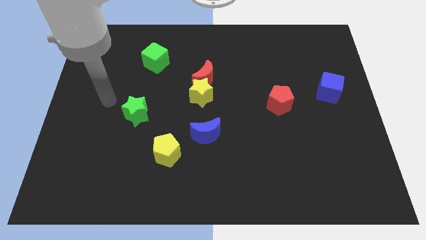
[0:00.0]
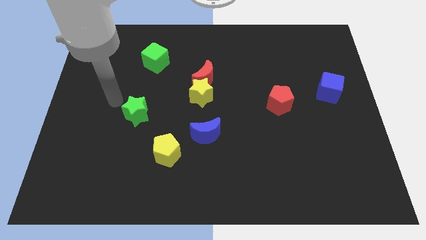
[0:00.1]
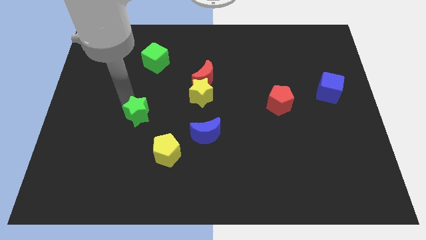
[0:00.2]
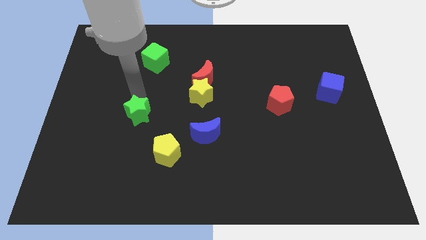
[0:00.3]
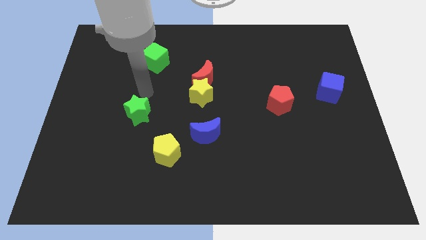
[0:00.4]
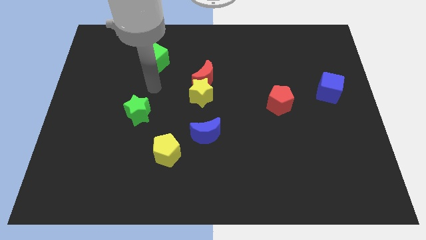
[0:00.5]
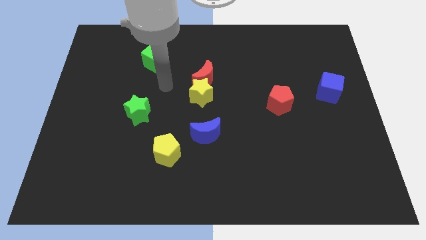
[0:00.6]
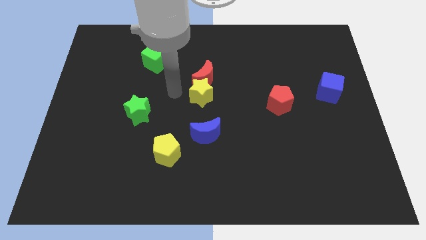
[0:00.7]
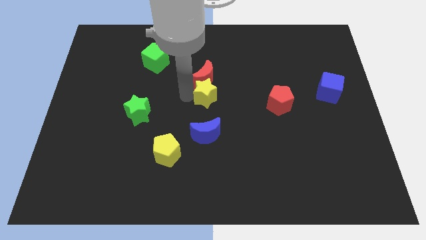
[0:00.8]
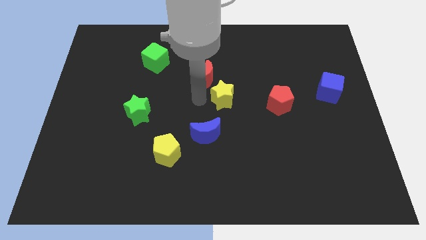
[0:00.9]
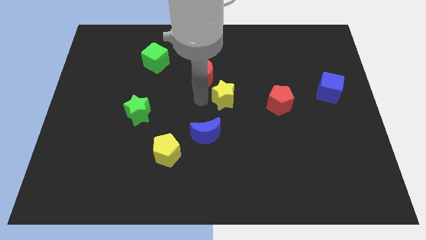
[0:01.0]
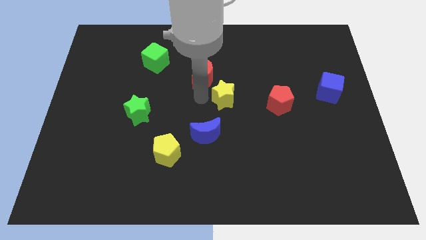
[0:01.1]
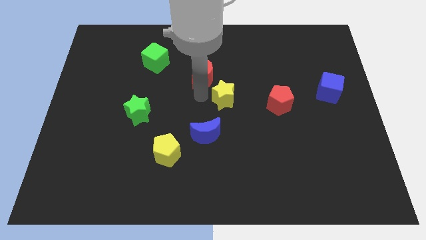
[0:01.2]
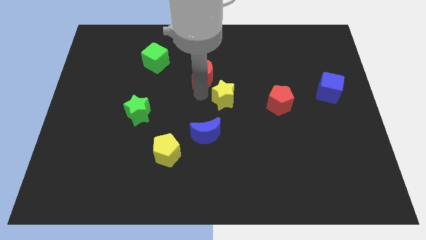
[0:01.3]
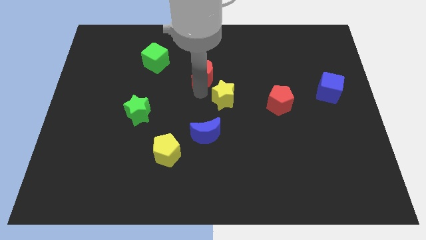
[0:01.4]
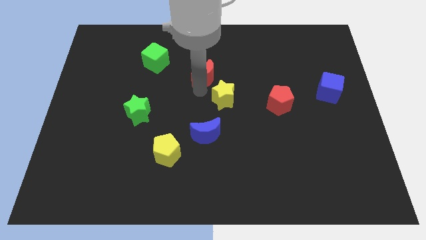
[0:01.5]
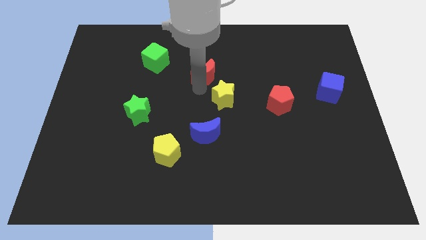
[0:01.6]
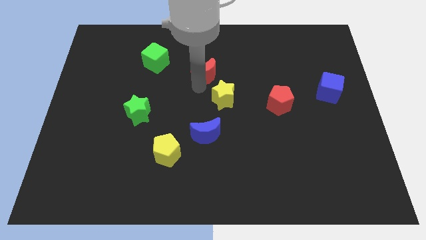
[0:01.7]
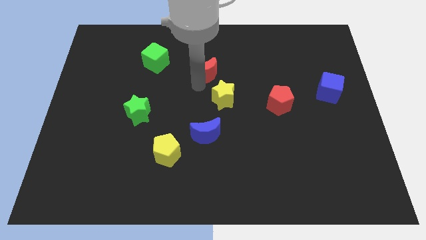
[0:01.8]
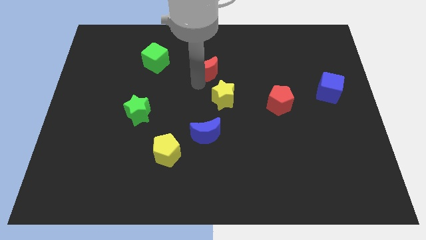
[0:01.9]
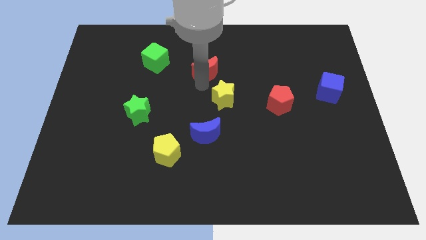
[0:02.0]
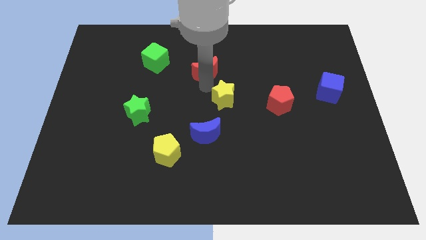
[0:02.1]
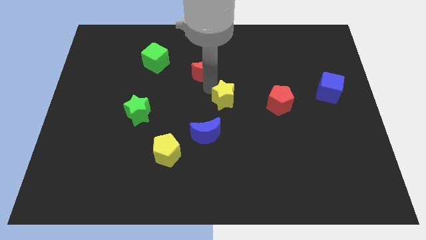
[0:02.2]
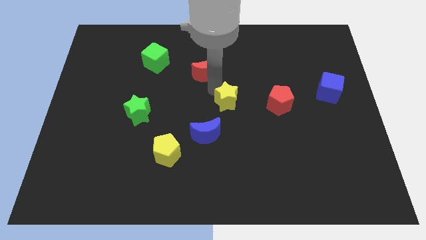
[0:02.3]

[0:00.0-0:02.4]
separate the red moon from the yellow star

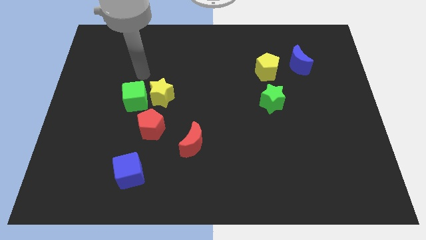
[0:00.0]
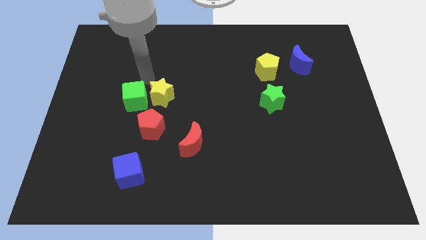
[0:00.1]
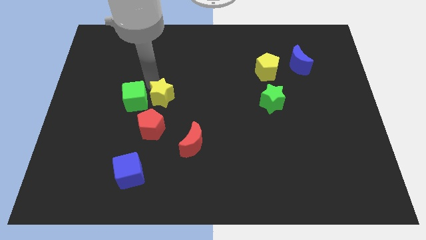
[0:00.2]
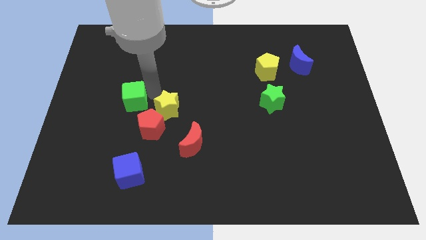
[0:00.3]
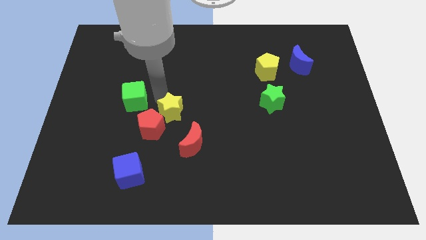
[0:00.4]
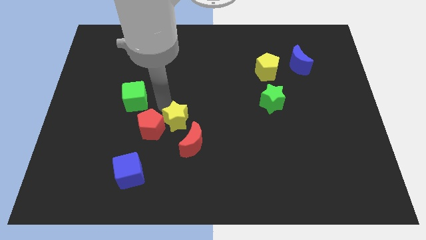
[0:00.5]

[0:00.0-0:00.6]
pull the green cube apart from the yellow star and red pentagon

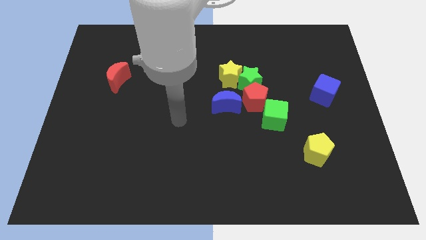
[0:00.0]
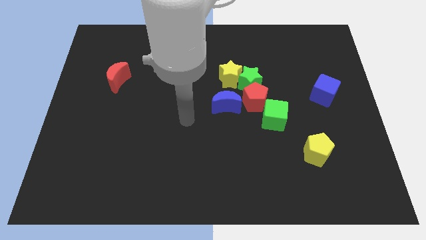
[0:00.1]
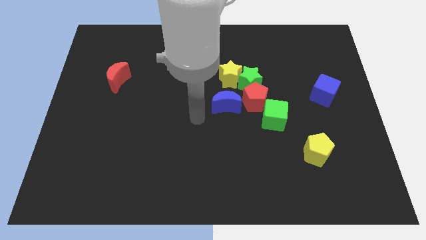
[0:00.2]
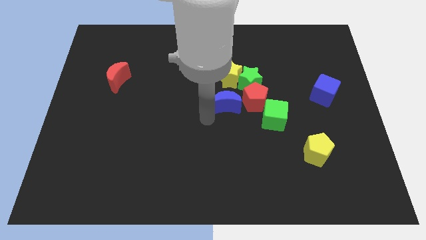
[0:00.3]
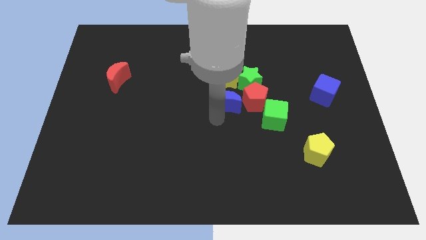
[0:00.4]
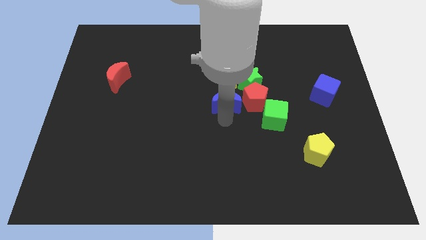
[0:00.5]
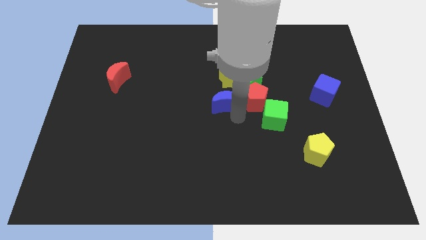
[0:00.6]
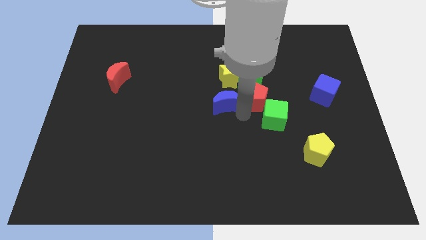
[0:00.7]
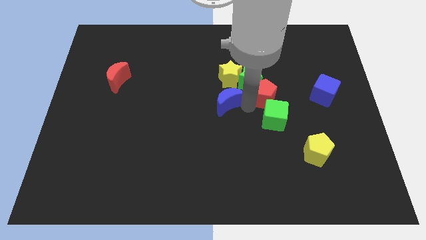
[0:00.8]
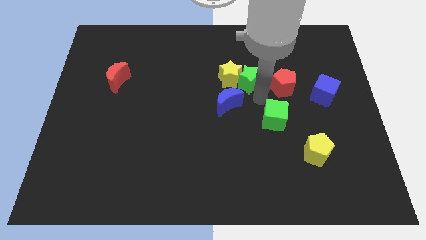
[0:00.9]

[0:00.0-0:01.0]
separate the green cube from the red pentagon

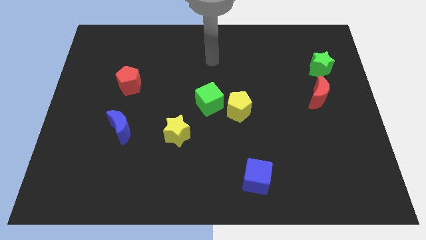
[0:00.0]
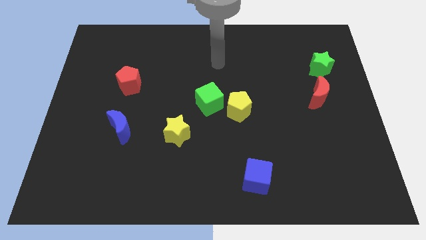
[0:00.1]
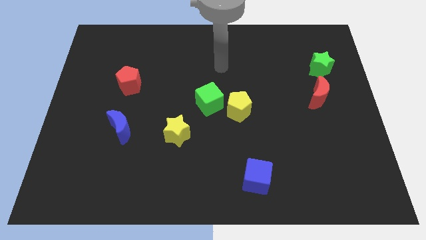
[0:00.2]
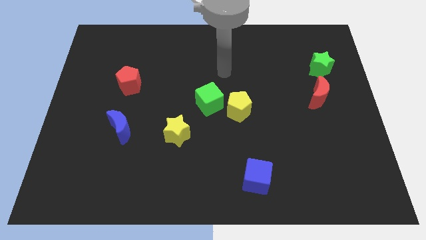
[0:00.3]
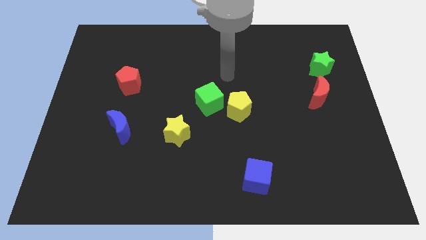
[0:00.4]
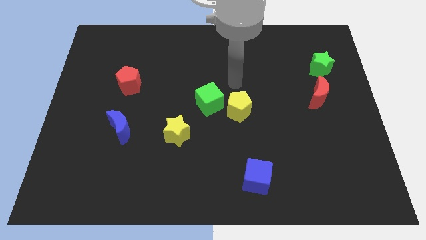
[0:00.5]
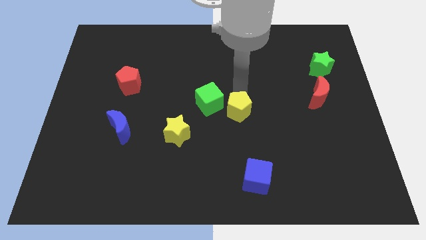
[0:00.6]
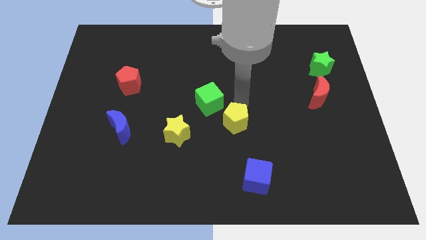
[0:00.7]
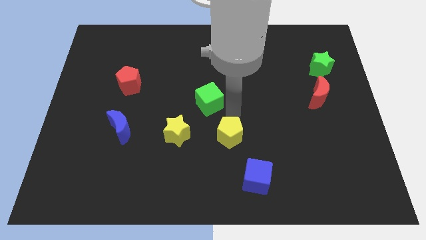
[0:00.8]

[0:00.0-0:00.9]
separate the green cube from the yellow pentagon

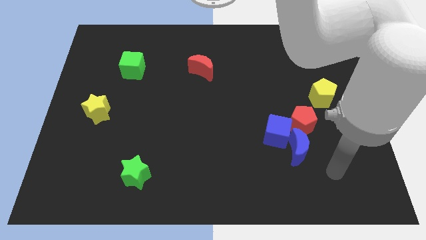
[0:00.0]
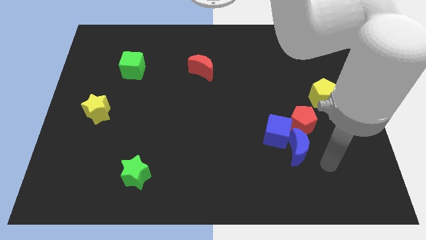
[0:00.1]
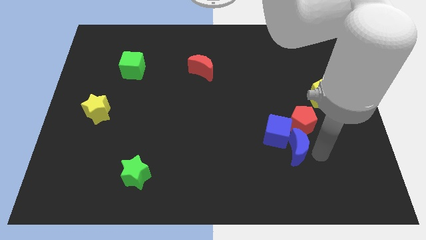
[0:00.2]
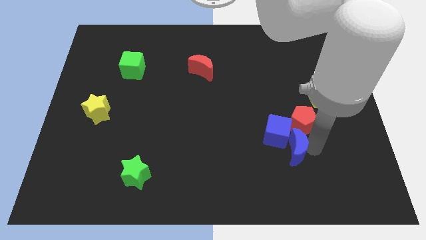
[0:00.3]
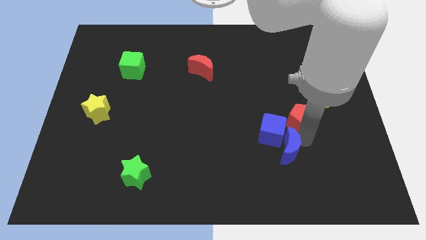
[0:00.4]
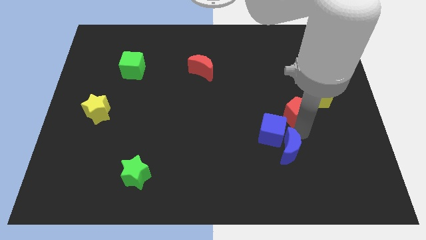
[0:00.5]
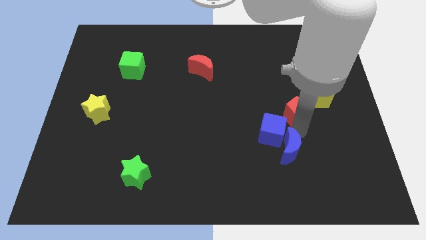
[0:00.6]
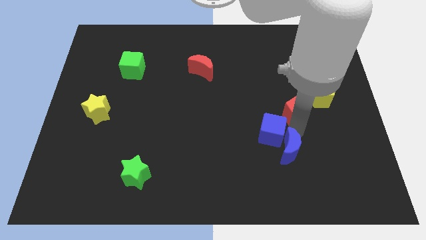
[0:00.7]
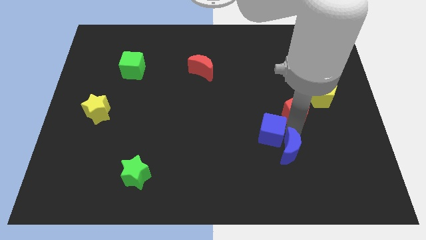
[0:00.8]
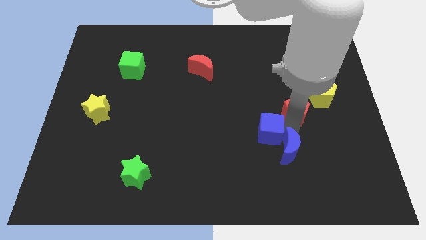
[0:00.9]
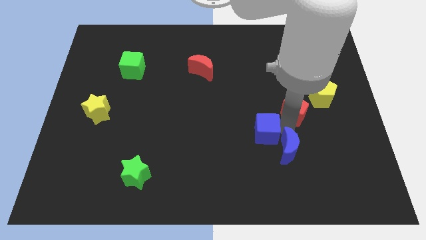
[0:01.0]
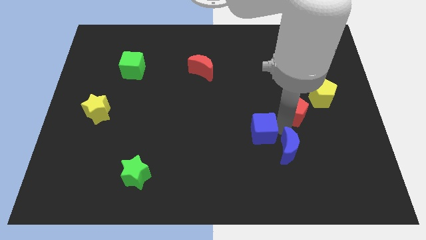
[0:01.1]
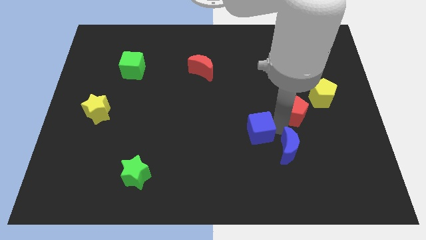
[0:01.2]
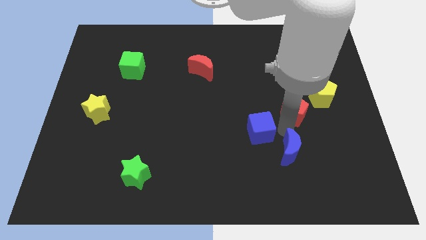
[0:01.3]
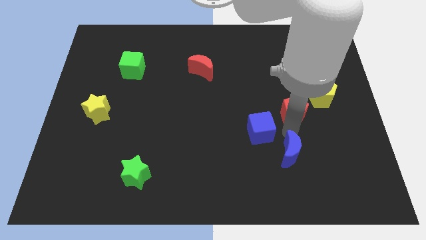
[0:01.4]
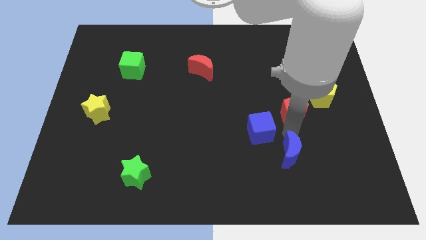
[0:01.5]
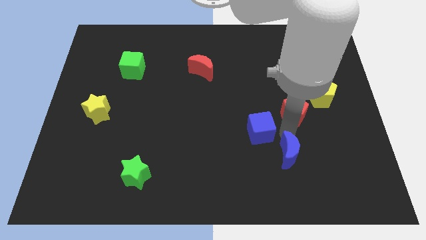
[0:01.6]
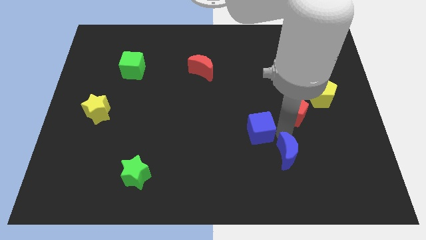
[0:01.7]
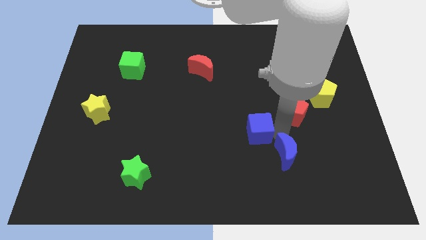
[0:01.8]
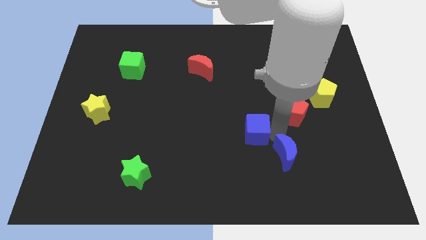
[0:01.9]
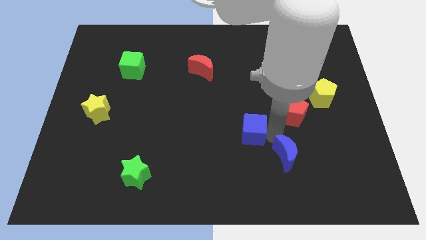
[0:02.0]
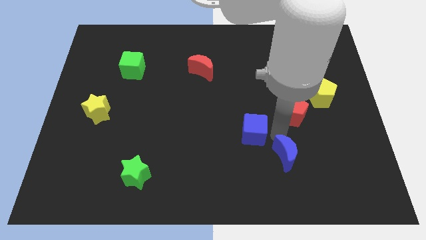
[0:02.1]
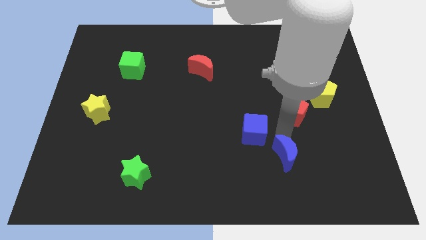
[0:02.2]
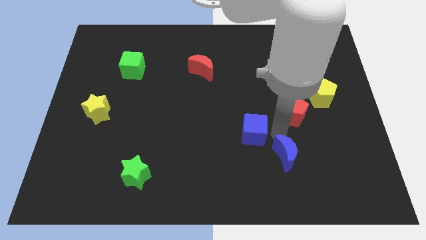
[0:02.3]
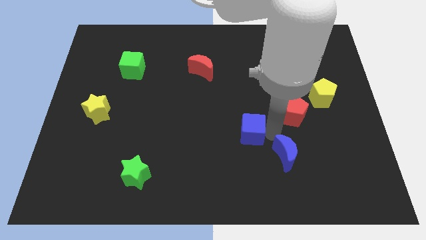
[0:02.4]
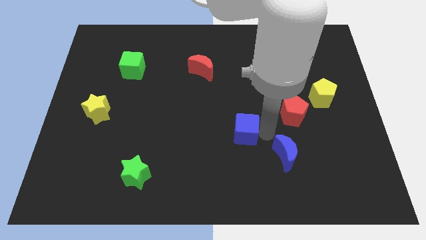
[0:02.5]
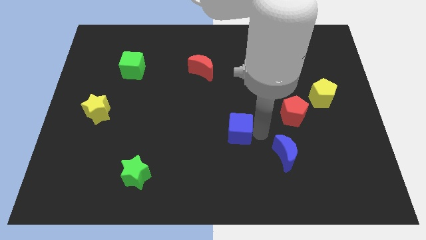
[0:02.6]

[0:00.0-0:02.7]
pull the blue cube apart from the blue moon and red pentagon

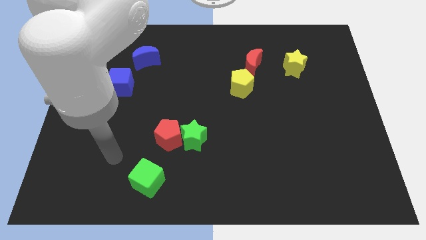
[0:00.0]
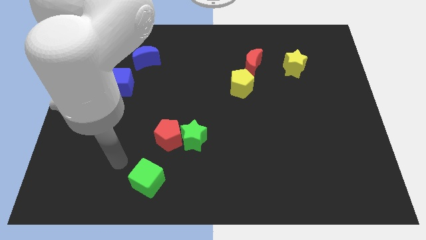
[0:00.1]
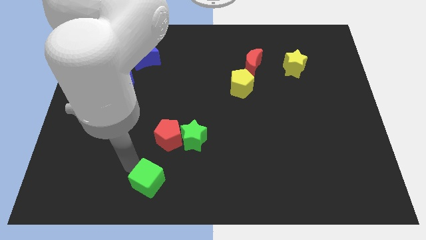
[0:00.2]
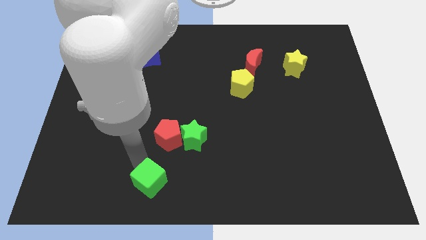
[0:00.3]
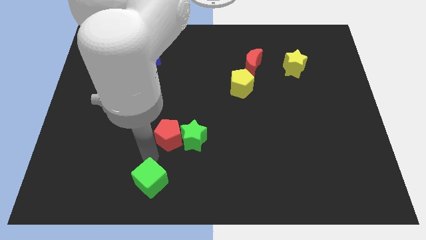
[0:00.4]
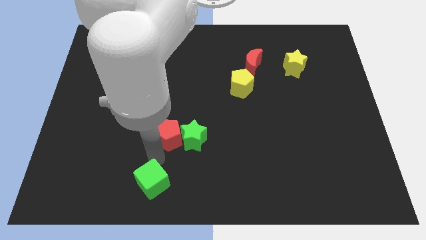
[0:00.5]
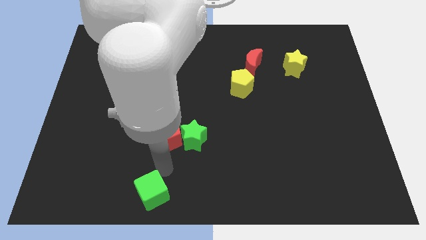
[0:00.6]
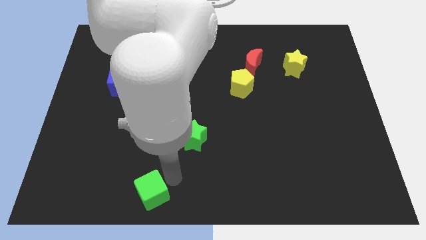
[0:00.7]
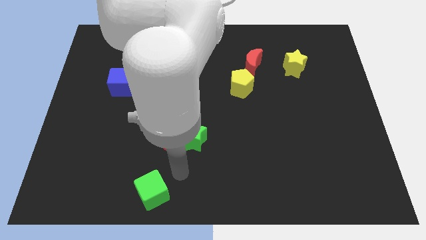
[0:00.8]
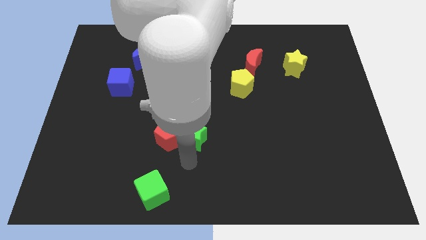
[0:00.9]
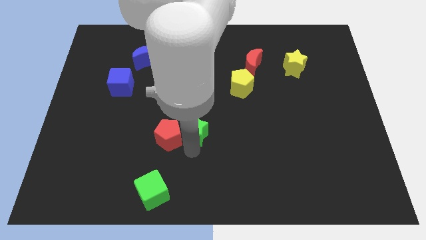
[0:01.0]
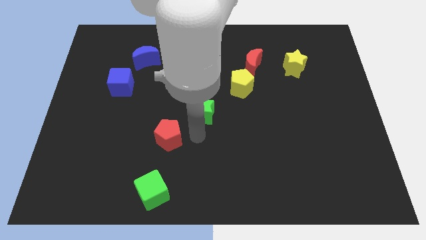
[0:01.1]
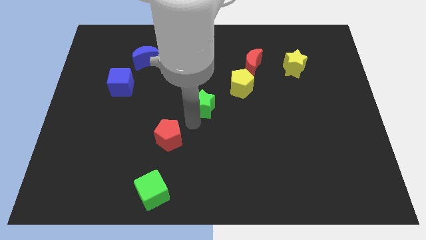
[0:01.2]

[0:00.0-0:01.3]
separate the red pentagon from the green star

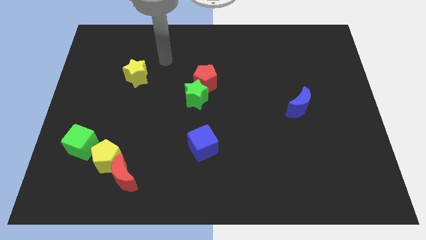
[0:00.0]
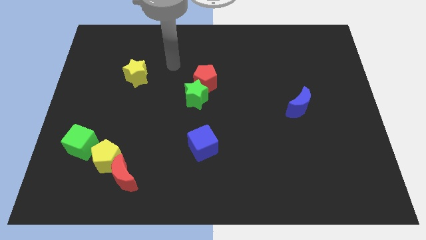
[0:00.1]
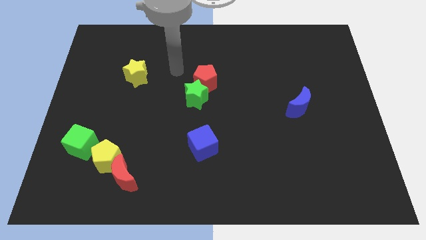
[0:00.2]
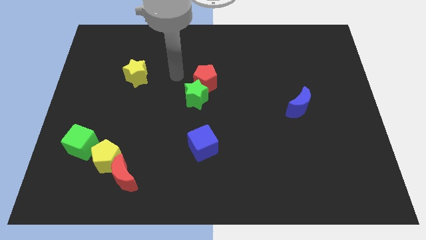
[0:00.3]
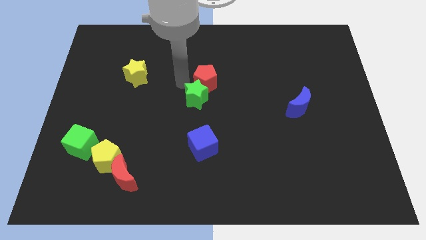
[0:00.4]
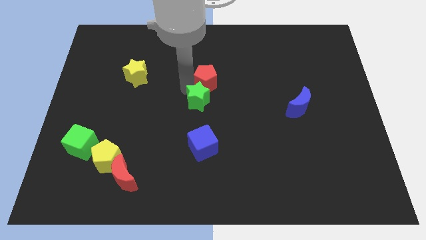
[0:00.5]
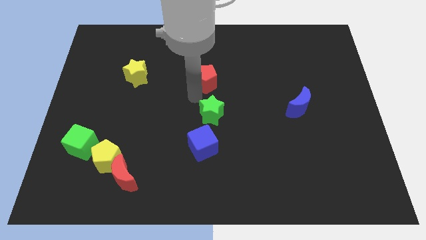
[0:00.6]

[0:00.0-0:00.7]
pull the red pentagon apart from the green star
